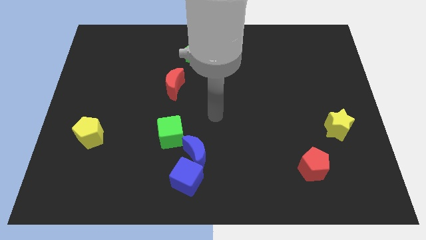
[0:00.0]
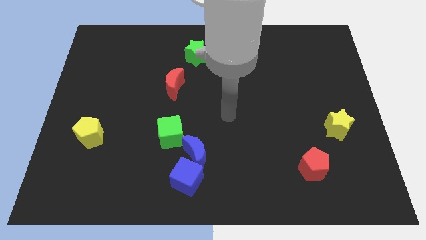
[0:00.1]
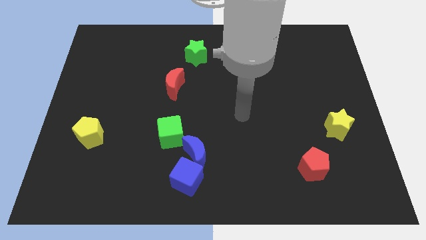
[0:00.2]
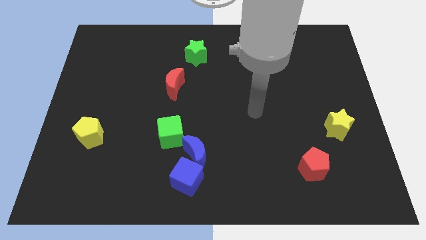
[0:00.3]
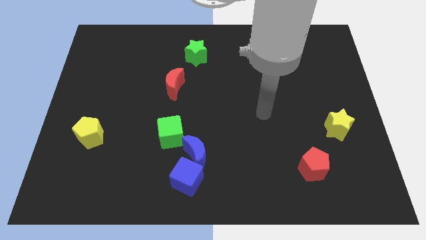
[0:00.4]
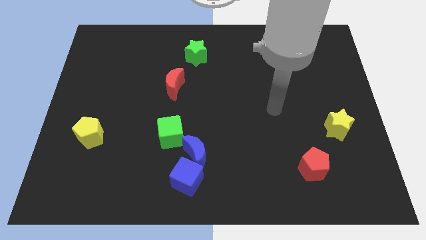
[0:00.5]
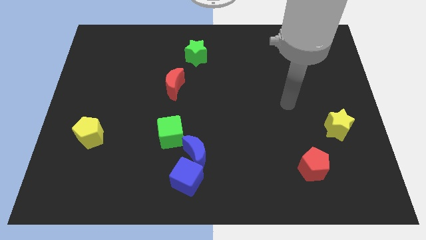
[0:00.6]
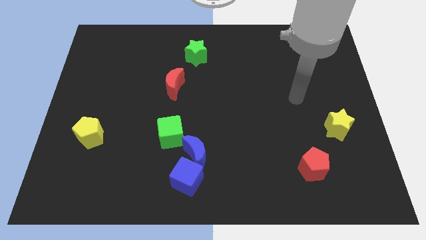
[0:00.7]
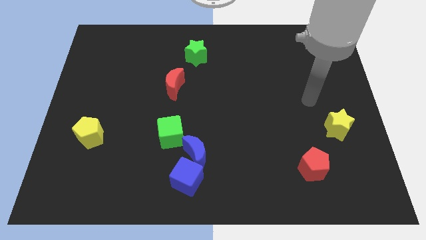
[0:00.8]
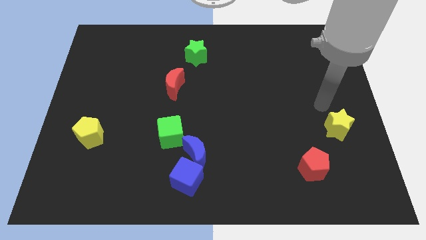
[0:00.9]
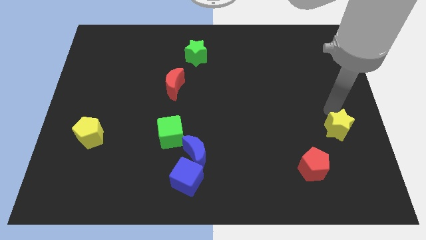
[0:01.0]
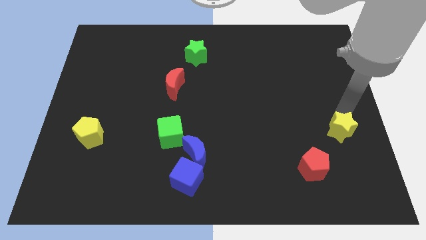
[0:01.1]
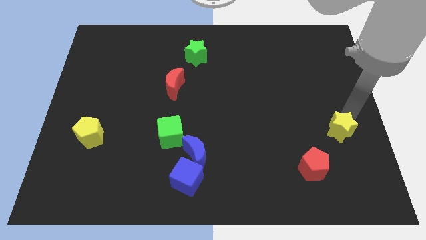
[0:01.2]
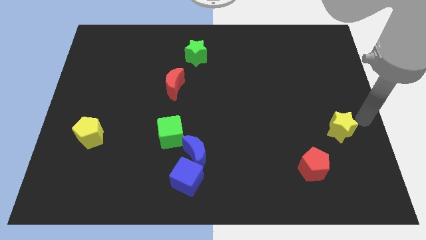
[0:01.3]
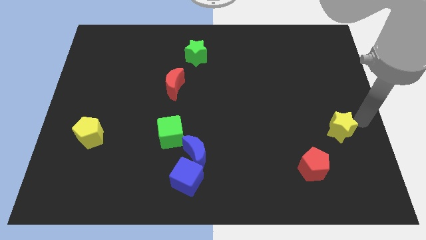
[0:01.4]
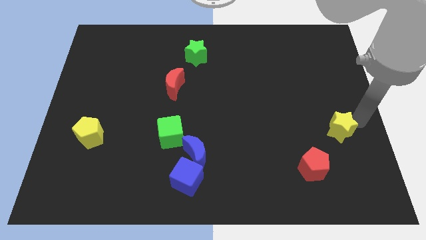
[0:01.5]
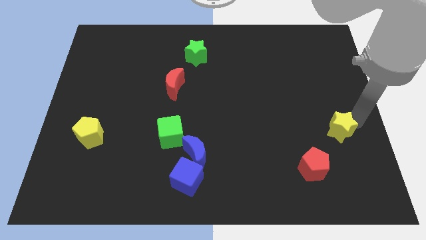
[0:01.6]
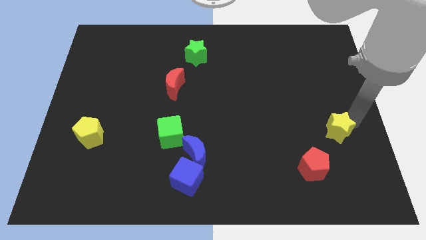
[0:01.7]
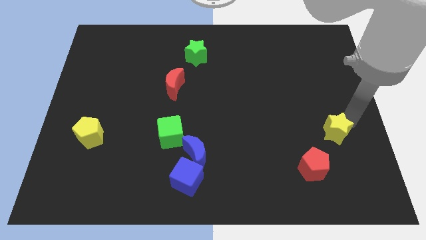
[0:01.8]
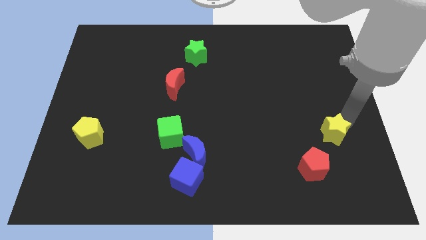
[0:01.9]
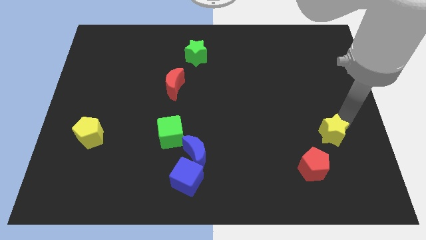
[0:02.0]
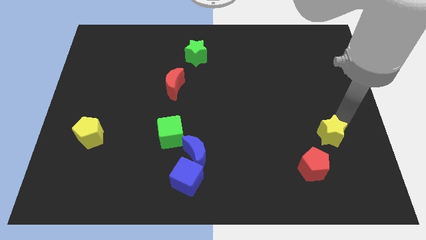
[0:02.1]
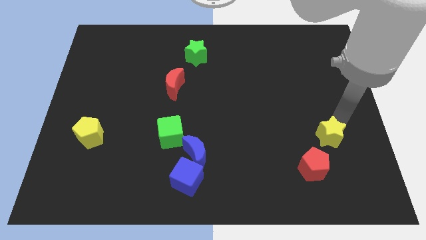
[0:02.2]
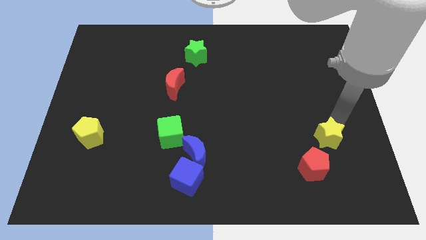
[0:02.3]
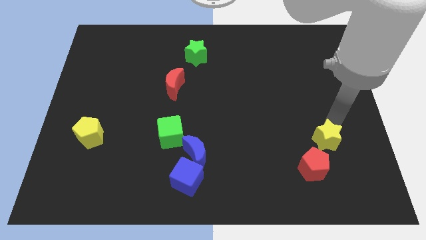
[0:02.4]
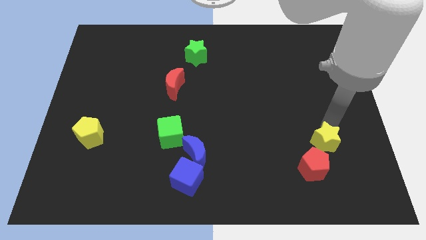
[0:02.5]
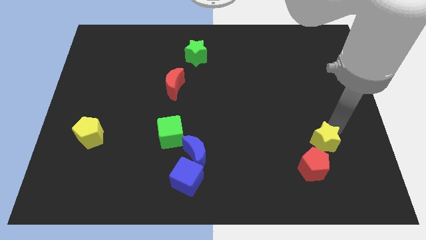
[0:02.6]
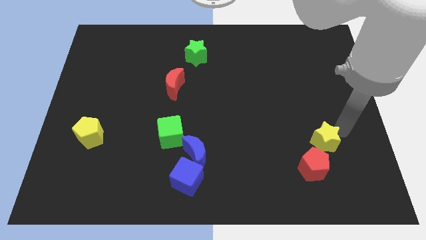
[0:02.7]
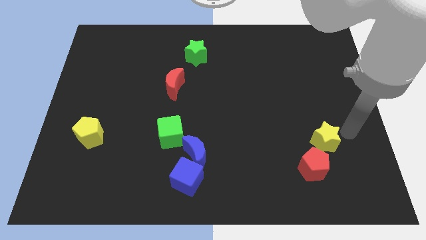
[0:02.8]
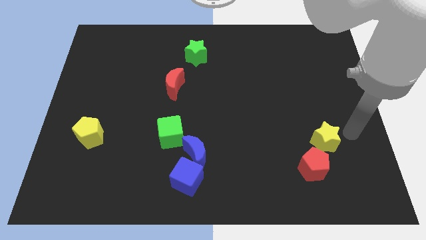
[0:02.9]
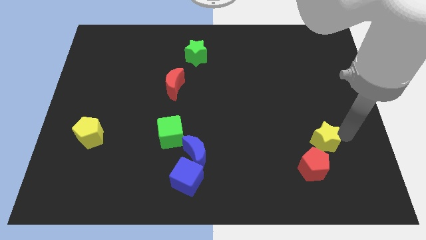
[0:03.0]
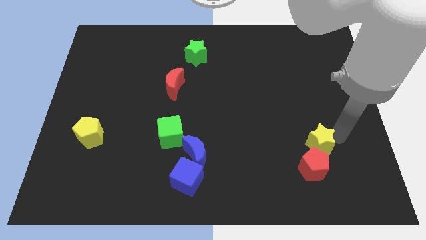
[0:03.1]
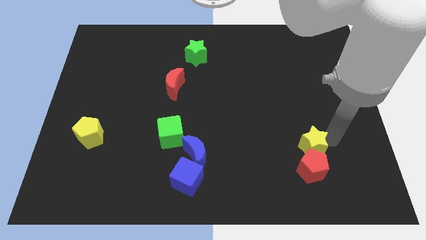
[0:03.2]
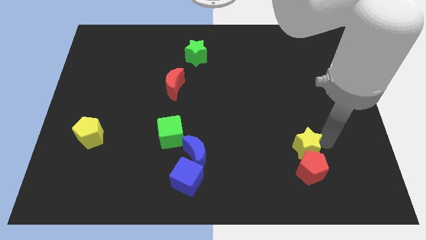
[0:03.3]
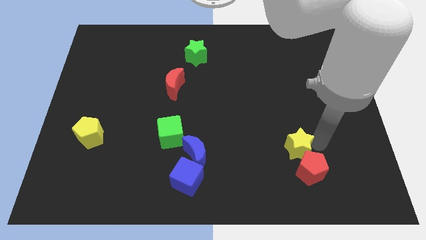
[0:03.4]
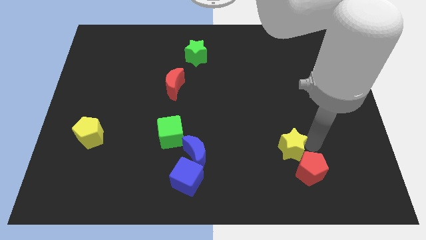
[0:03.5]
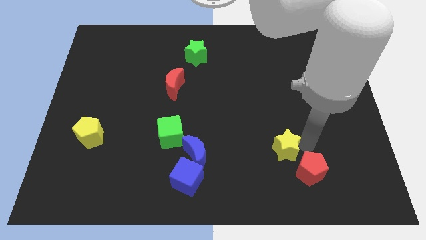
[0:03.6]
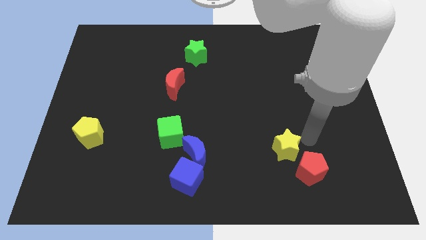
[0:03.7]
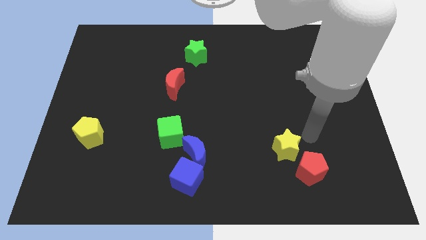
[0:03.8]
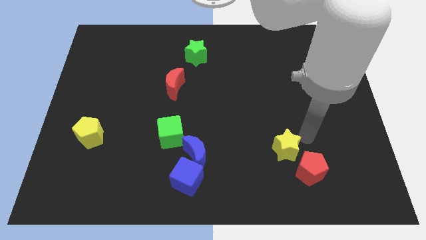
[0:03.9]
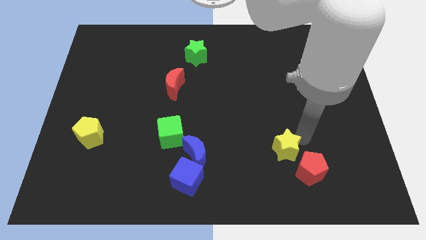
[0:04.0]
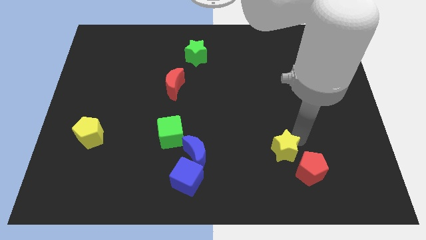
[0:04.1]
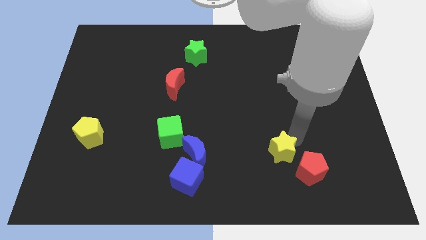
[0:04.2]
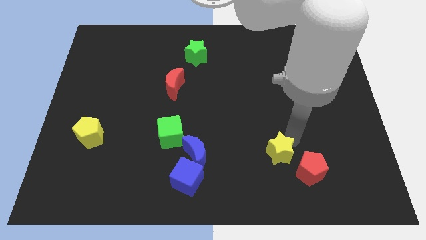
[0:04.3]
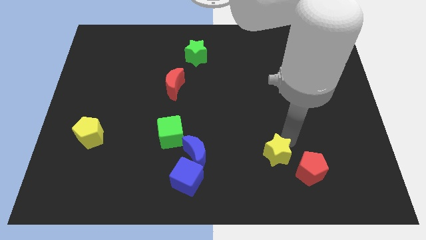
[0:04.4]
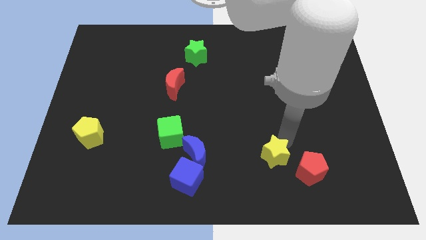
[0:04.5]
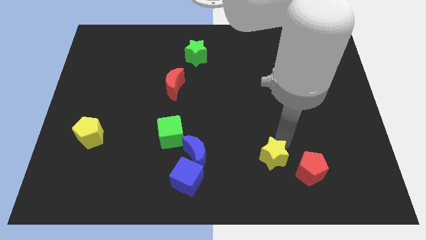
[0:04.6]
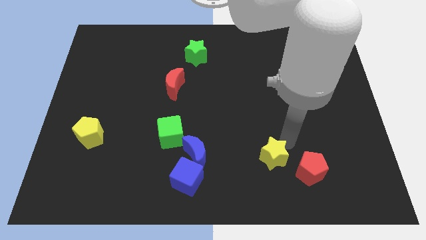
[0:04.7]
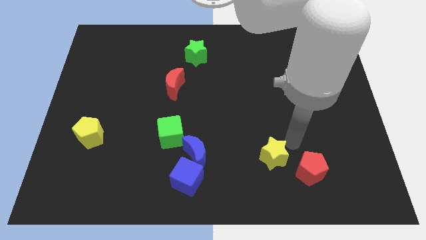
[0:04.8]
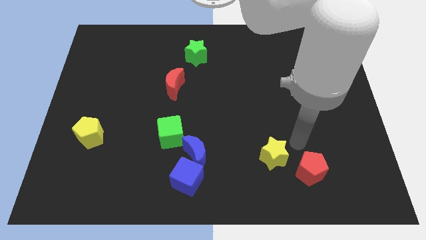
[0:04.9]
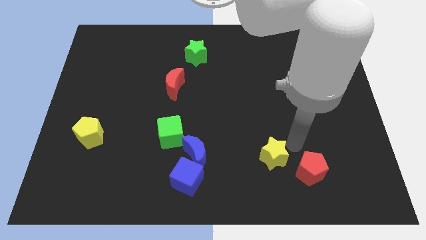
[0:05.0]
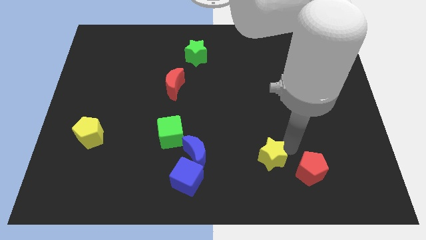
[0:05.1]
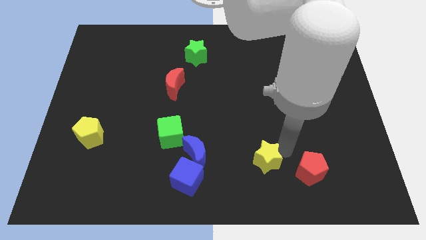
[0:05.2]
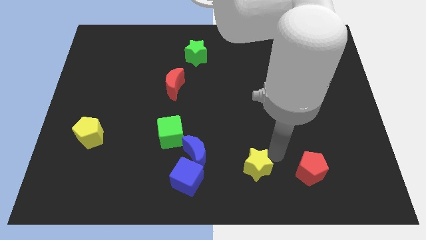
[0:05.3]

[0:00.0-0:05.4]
move the yellow star just right of the blue cube

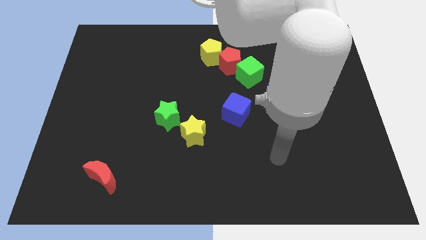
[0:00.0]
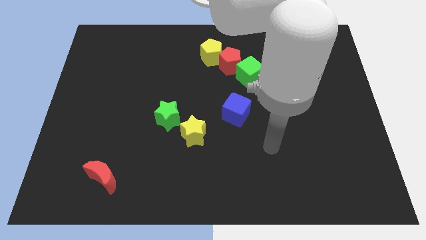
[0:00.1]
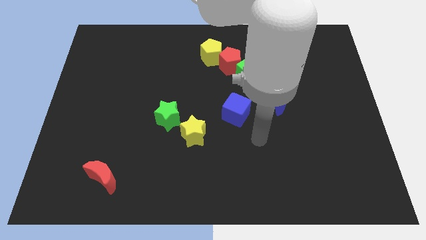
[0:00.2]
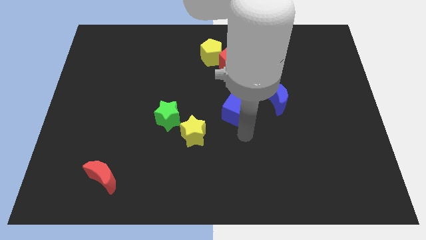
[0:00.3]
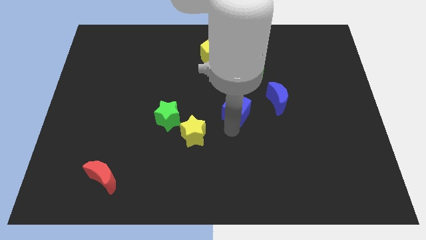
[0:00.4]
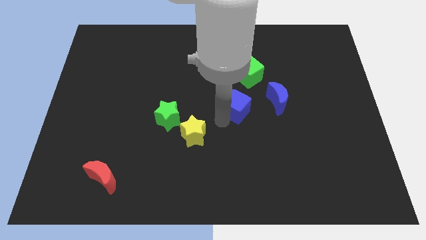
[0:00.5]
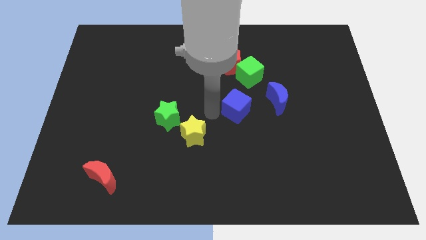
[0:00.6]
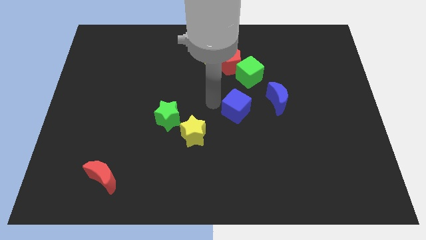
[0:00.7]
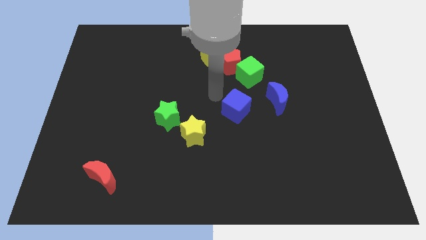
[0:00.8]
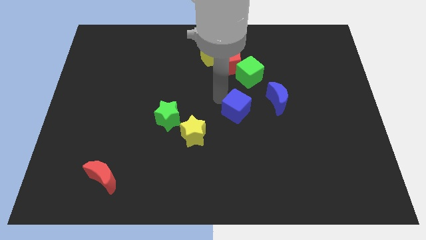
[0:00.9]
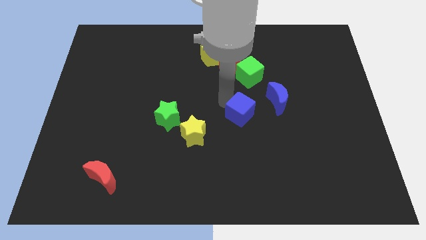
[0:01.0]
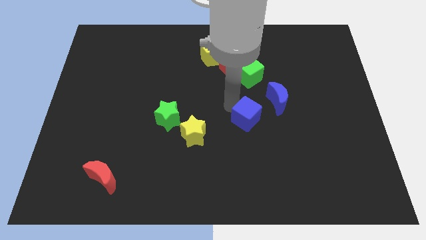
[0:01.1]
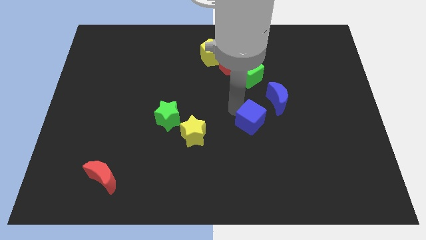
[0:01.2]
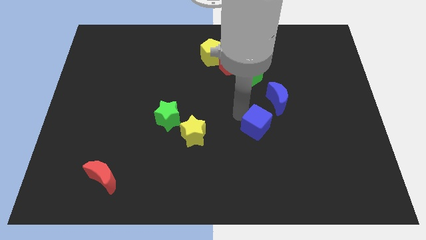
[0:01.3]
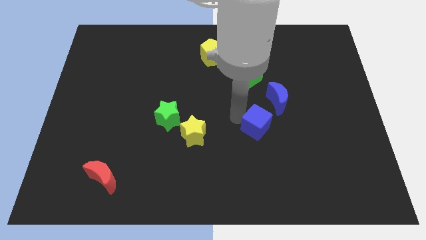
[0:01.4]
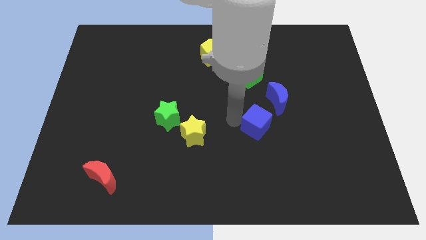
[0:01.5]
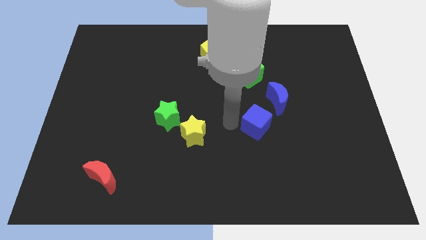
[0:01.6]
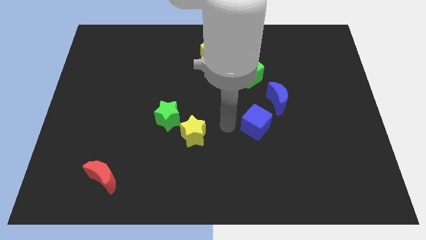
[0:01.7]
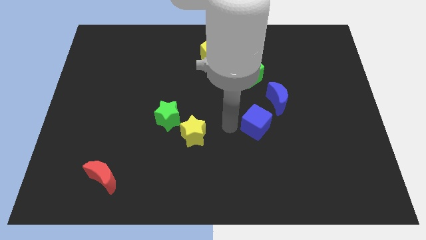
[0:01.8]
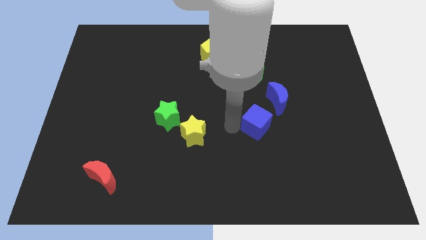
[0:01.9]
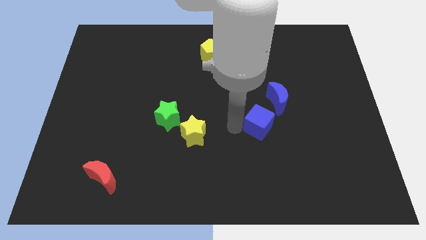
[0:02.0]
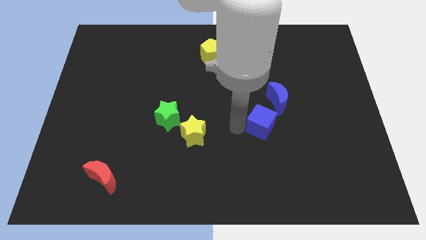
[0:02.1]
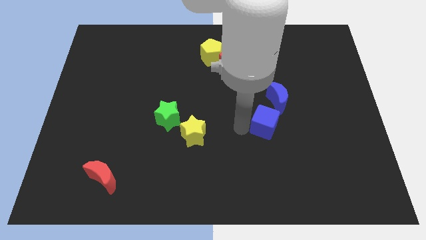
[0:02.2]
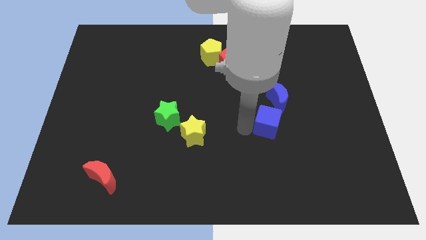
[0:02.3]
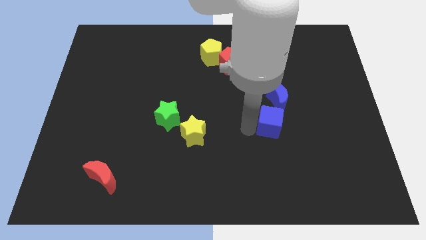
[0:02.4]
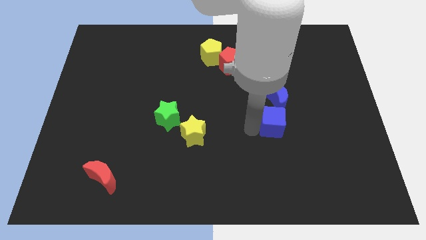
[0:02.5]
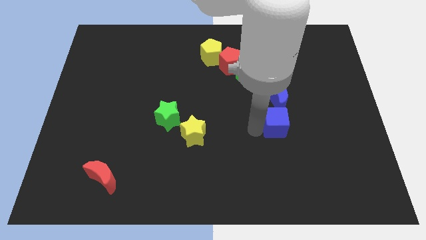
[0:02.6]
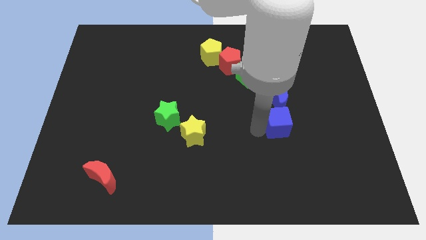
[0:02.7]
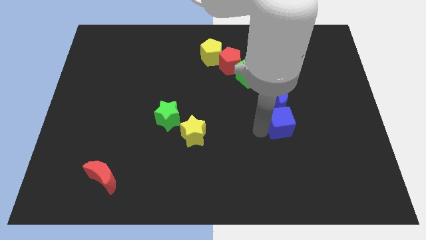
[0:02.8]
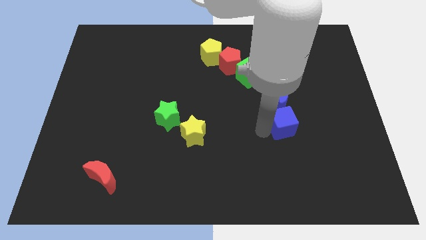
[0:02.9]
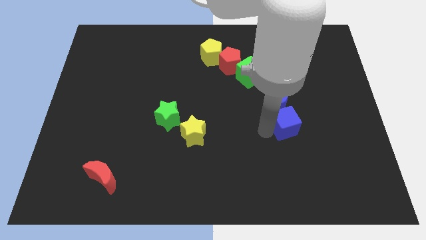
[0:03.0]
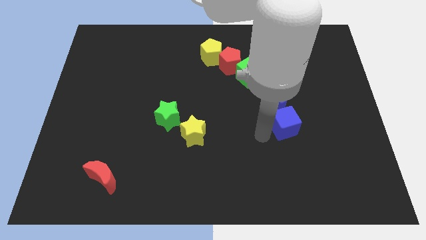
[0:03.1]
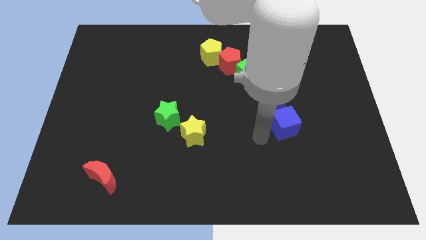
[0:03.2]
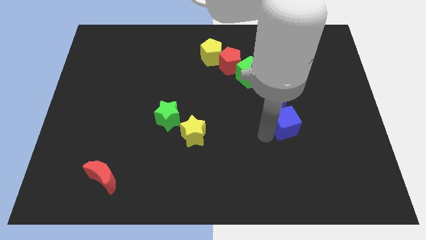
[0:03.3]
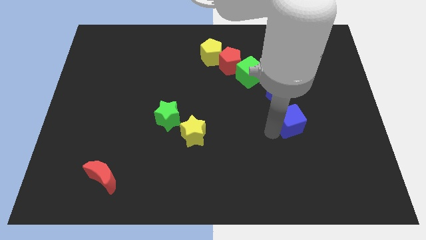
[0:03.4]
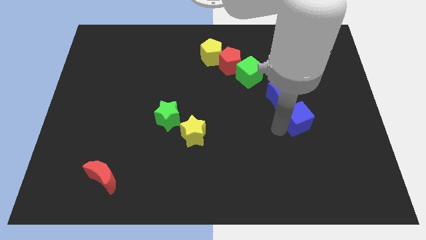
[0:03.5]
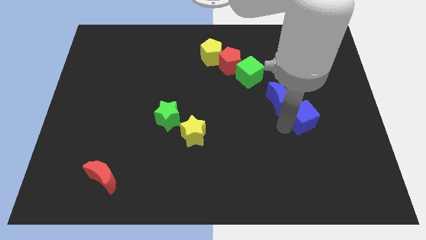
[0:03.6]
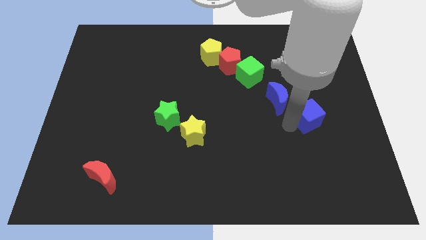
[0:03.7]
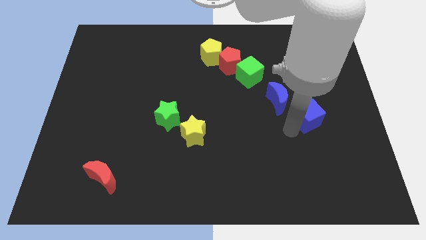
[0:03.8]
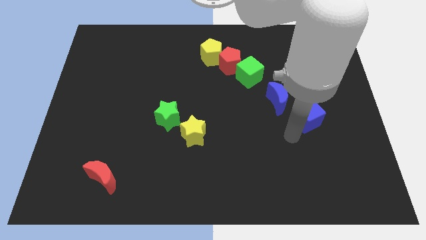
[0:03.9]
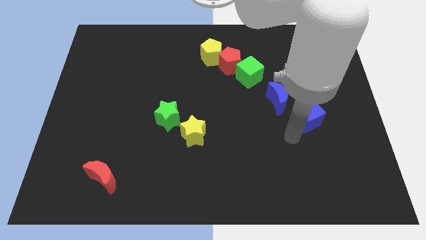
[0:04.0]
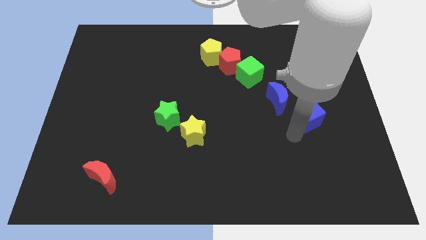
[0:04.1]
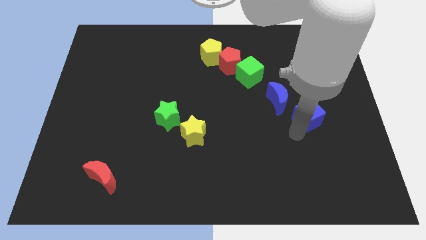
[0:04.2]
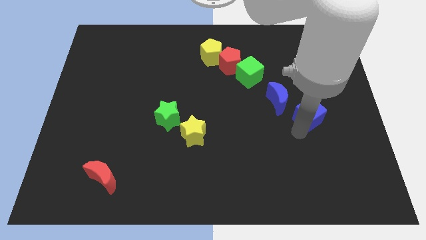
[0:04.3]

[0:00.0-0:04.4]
push the blue cube to the right of the blue moon
